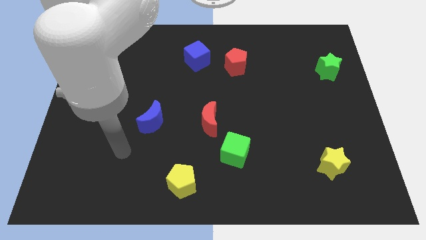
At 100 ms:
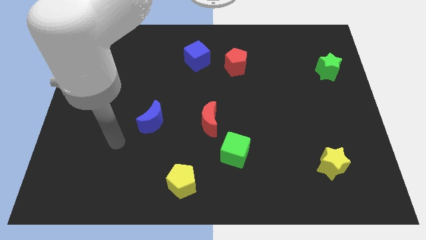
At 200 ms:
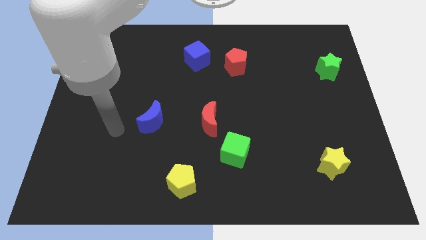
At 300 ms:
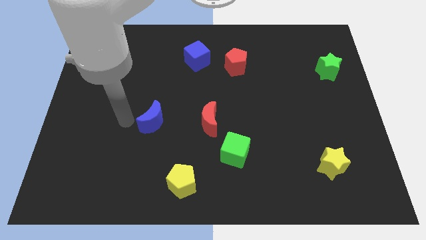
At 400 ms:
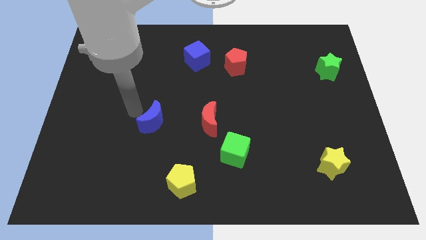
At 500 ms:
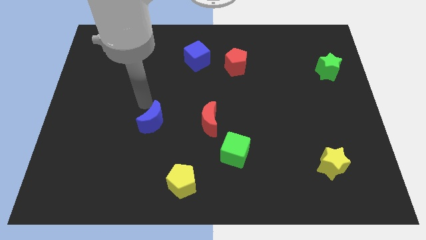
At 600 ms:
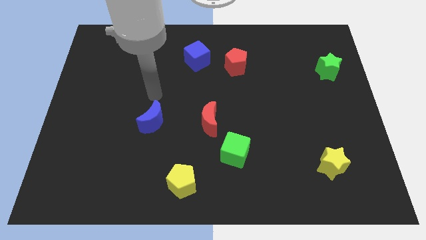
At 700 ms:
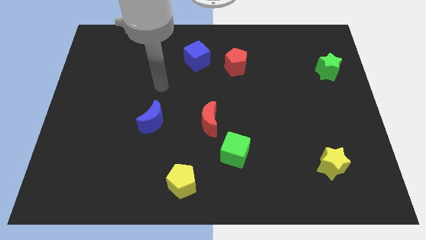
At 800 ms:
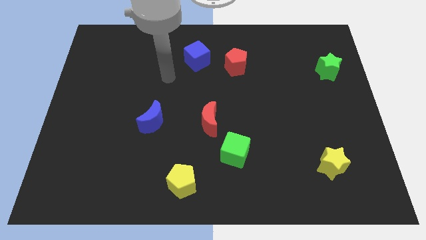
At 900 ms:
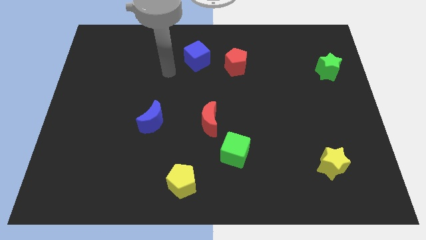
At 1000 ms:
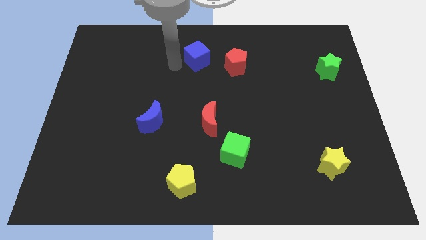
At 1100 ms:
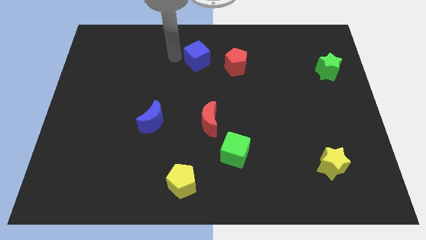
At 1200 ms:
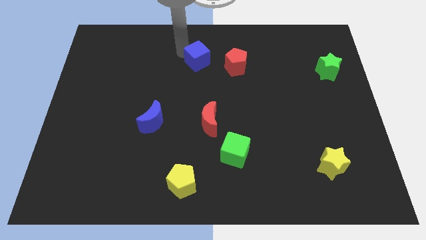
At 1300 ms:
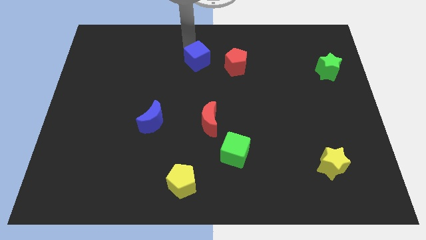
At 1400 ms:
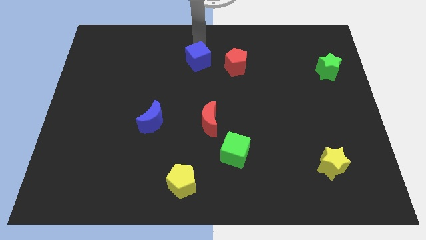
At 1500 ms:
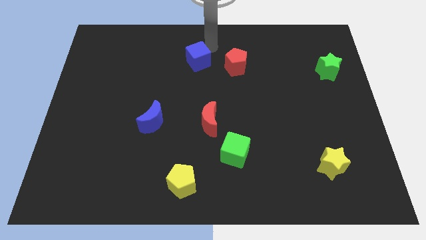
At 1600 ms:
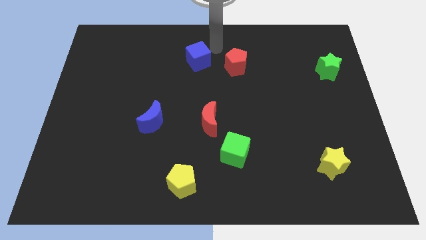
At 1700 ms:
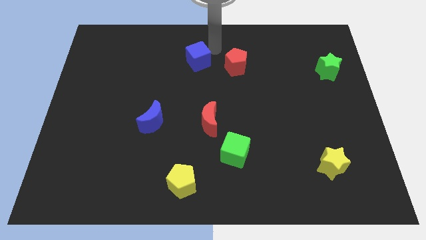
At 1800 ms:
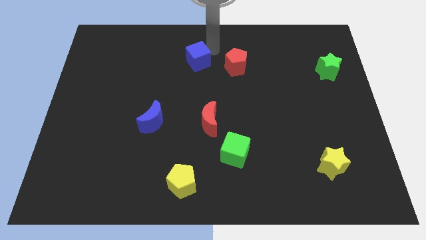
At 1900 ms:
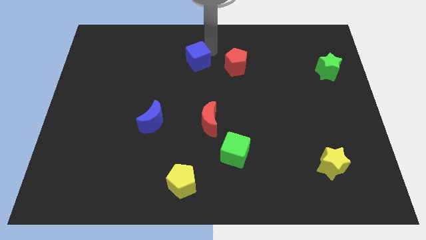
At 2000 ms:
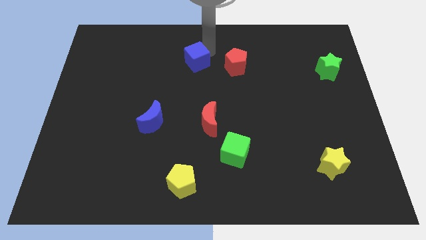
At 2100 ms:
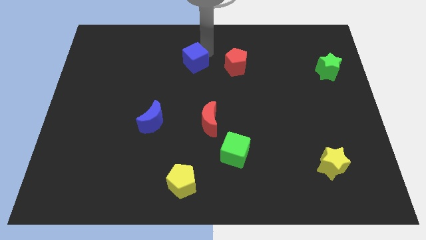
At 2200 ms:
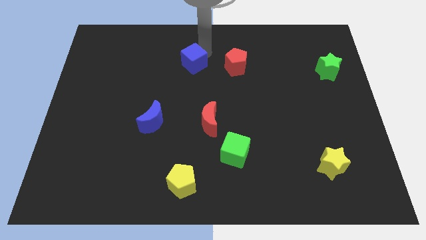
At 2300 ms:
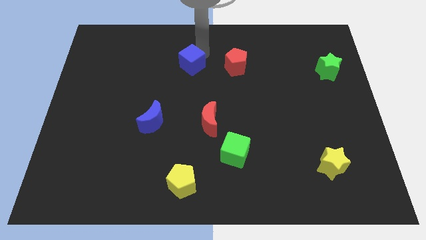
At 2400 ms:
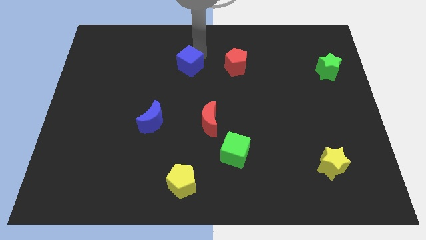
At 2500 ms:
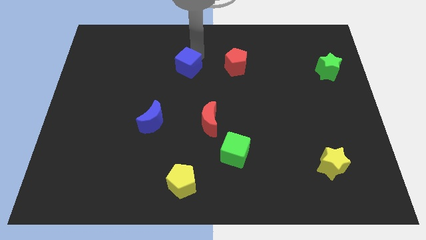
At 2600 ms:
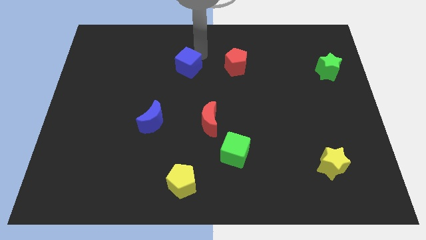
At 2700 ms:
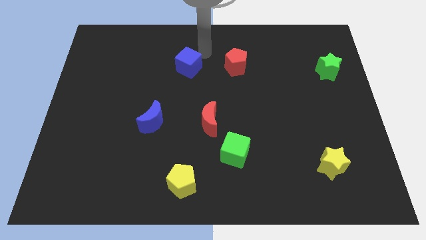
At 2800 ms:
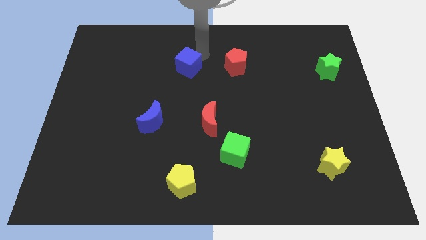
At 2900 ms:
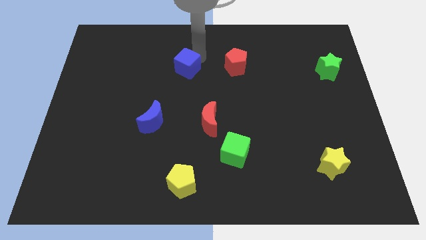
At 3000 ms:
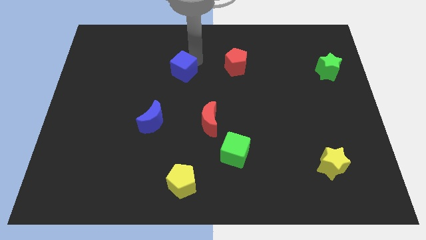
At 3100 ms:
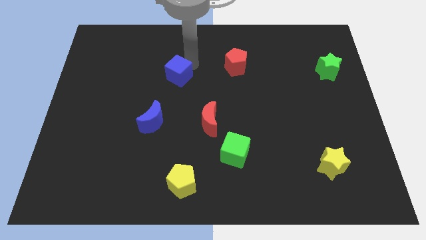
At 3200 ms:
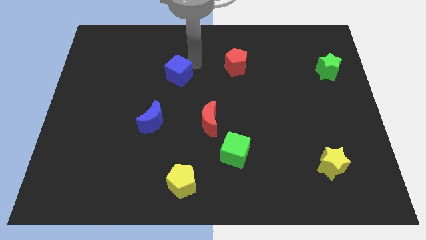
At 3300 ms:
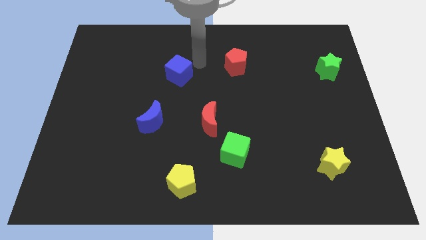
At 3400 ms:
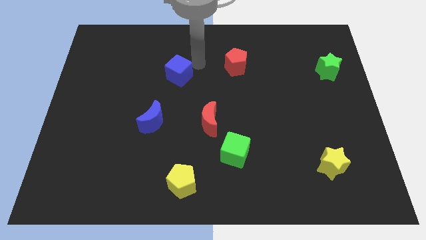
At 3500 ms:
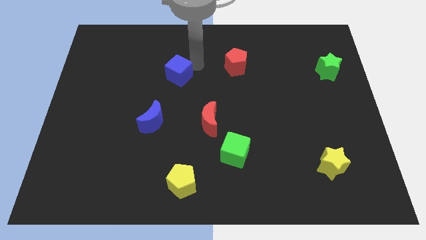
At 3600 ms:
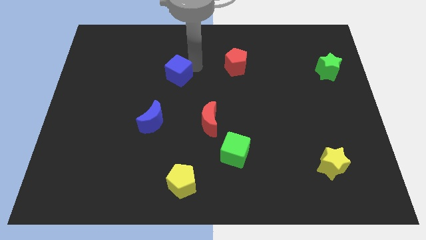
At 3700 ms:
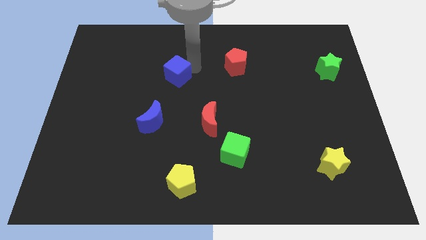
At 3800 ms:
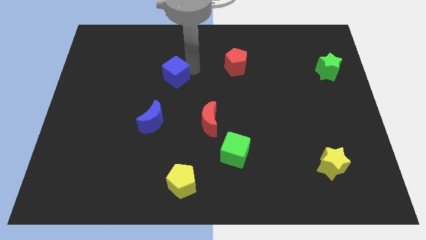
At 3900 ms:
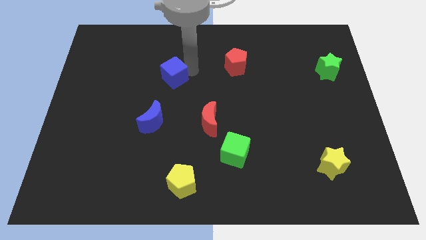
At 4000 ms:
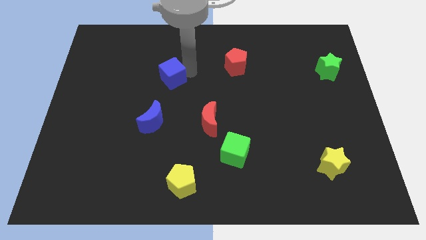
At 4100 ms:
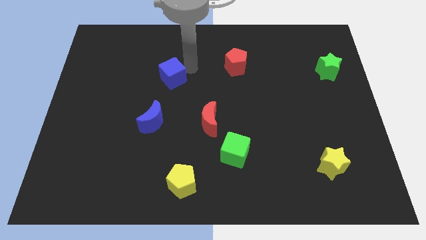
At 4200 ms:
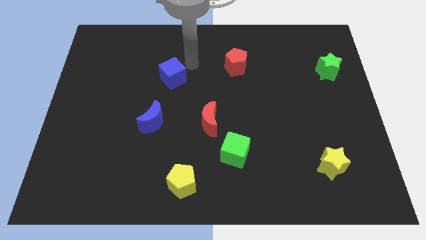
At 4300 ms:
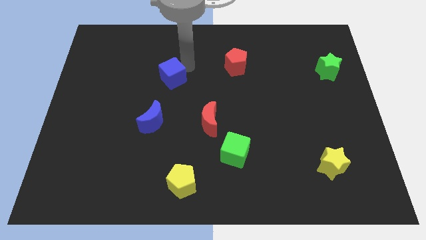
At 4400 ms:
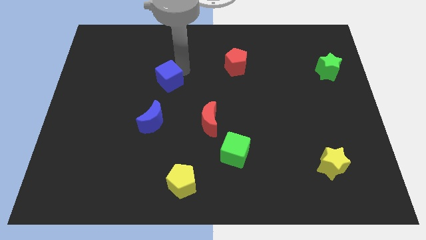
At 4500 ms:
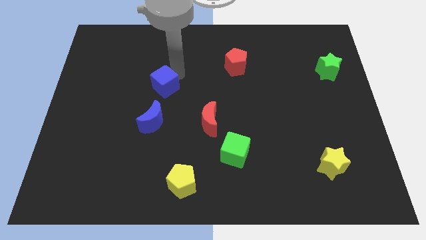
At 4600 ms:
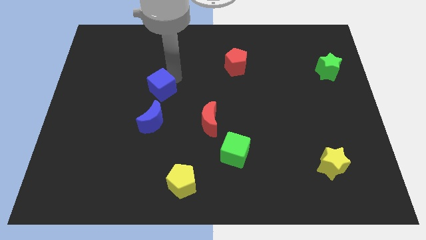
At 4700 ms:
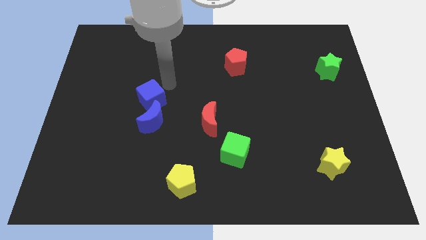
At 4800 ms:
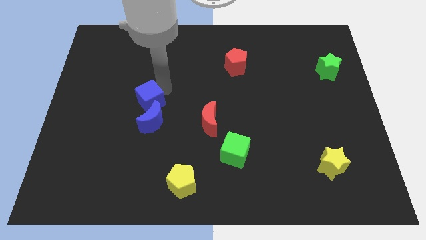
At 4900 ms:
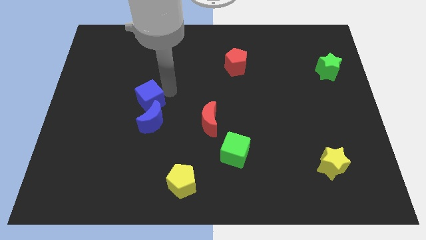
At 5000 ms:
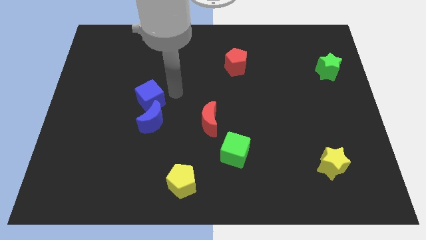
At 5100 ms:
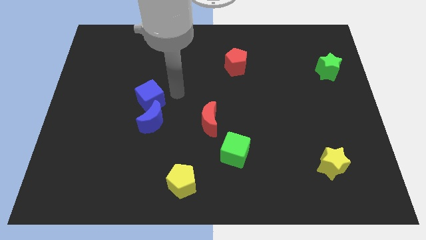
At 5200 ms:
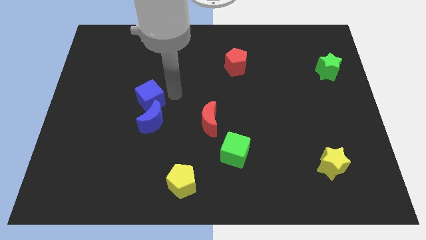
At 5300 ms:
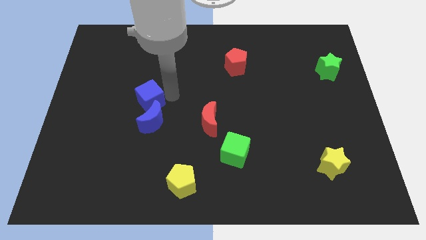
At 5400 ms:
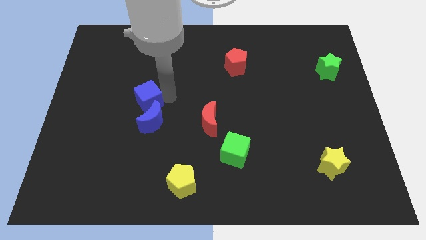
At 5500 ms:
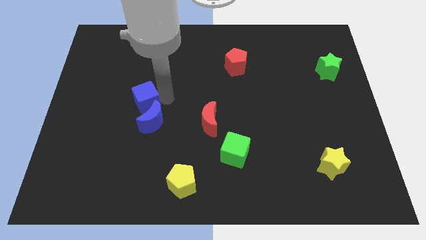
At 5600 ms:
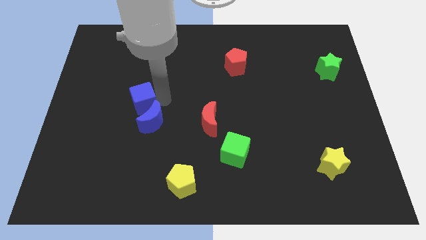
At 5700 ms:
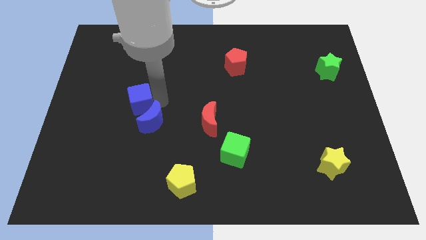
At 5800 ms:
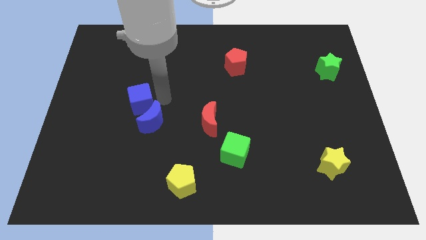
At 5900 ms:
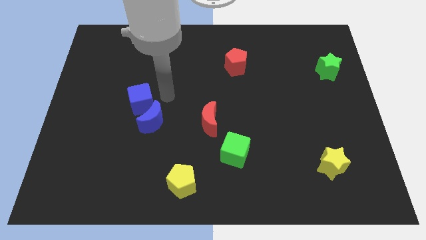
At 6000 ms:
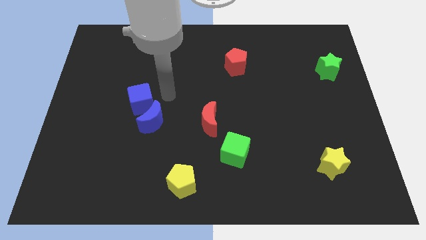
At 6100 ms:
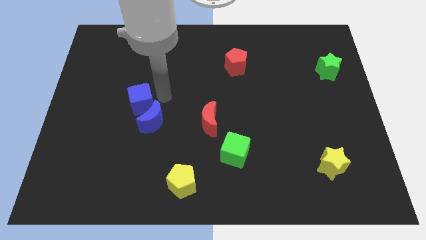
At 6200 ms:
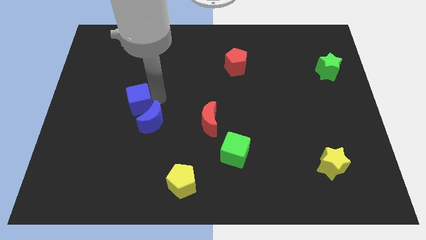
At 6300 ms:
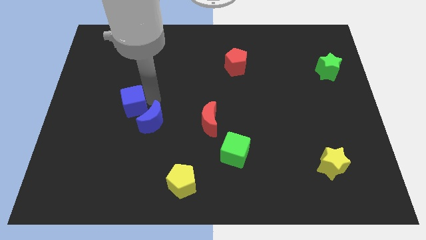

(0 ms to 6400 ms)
slide the blue cube down and to the left

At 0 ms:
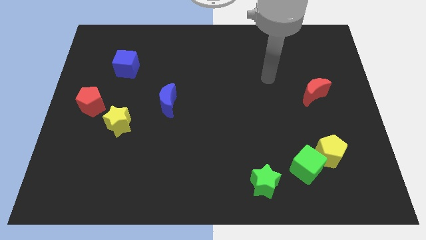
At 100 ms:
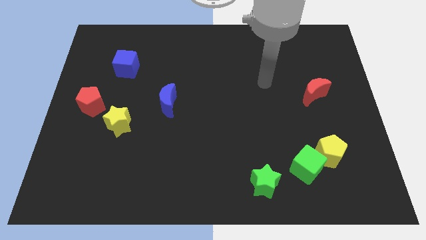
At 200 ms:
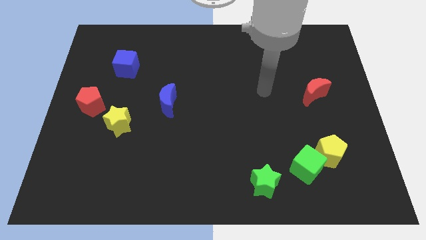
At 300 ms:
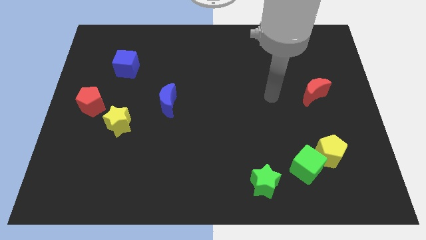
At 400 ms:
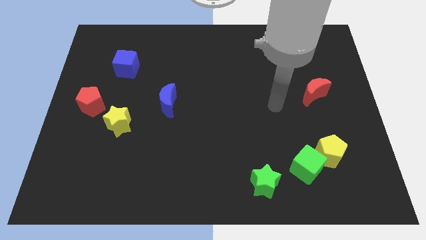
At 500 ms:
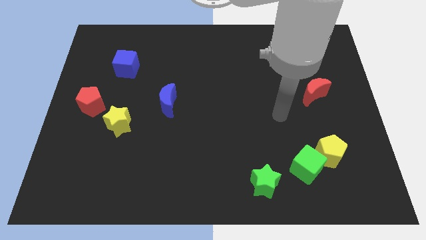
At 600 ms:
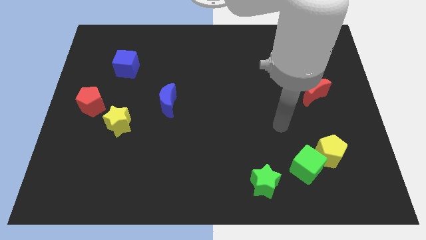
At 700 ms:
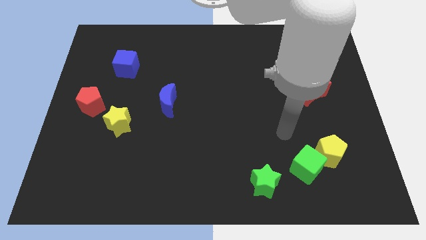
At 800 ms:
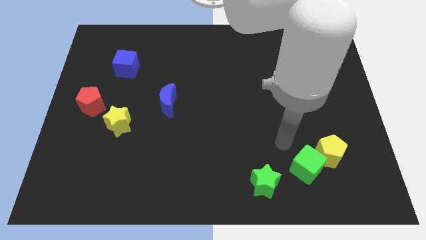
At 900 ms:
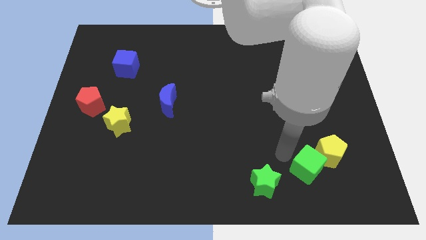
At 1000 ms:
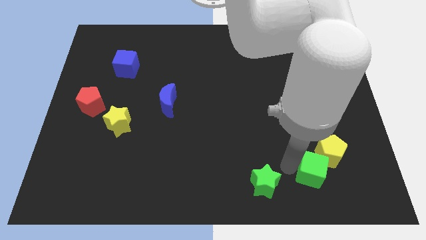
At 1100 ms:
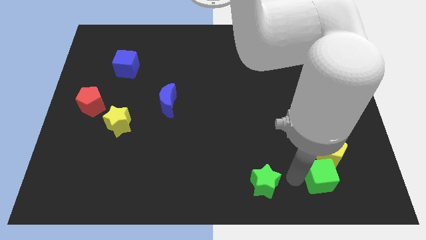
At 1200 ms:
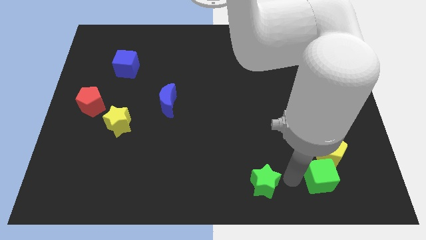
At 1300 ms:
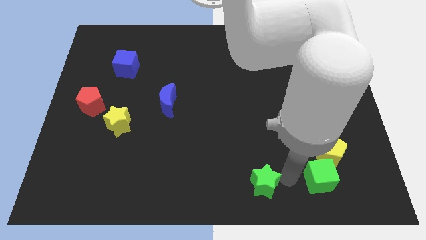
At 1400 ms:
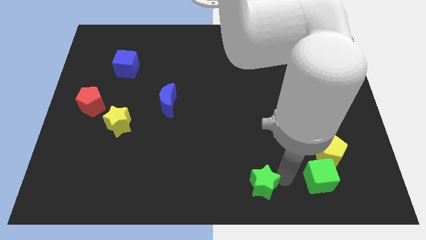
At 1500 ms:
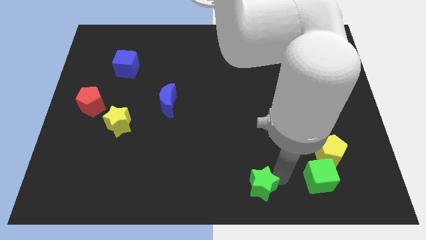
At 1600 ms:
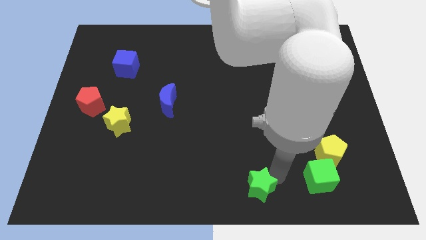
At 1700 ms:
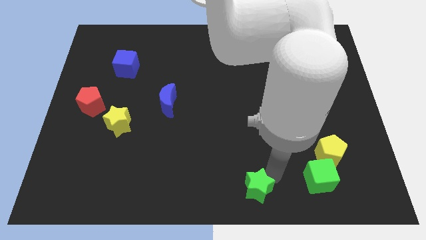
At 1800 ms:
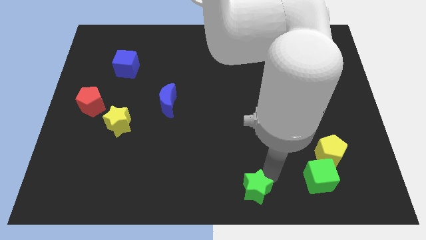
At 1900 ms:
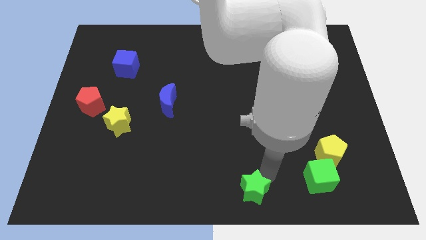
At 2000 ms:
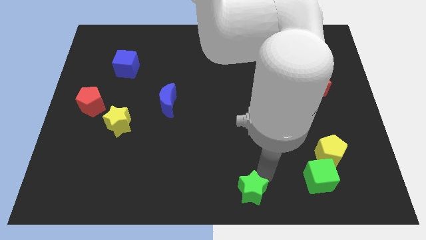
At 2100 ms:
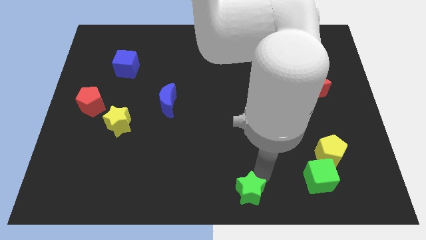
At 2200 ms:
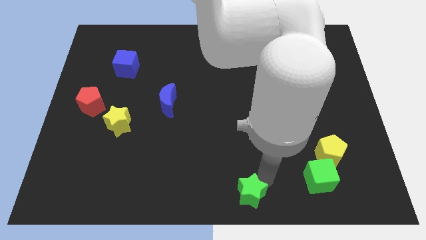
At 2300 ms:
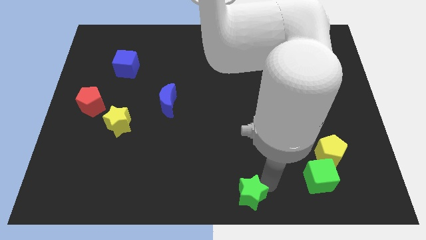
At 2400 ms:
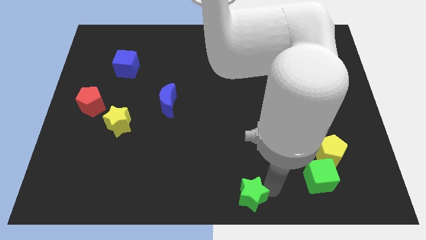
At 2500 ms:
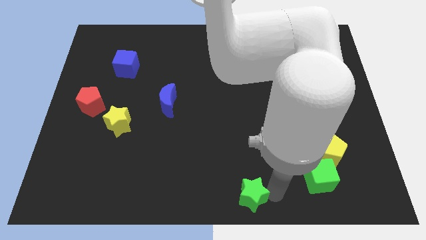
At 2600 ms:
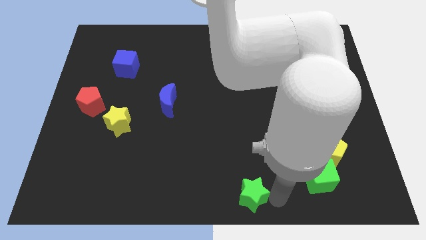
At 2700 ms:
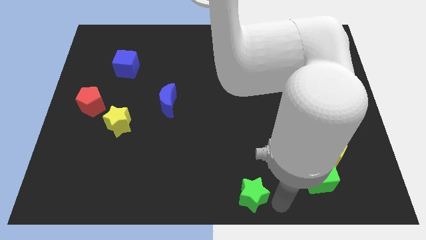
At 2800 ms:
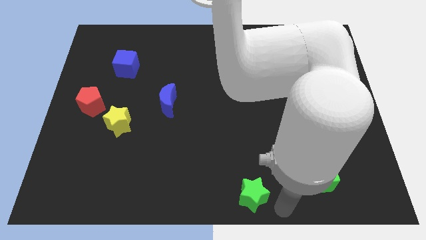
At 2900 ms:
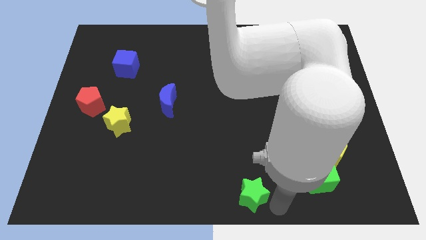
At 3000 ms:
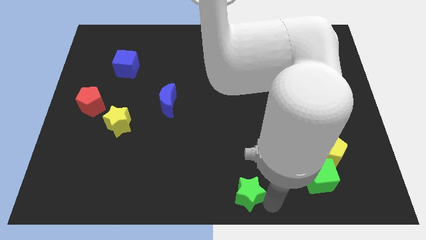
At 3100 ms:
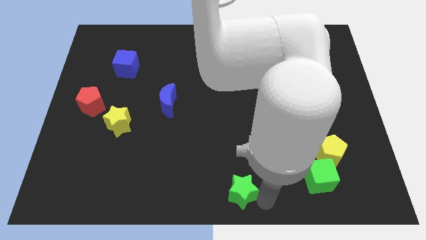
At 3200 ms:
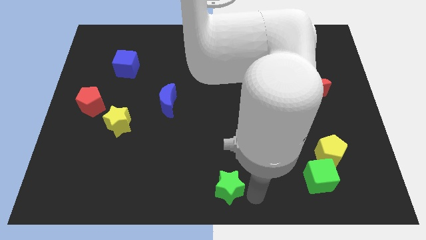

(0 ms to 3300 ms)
move the green star to the left a little
